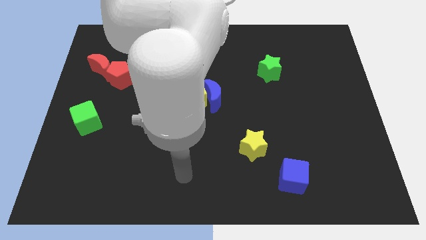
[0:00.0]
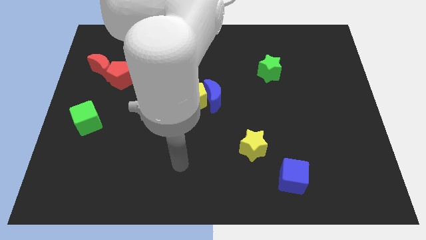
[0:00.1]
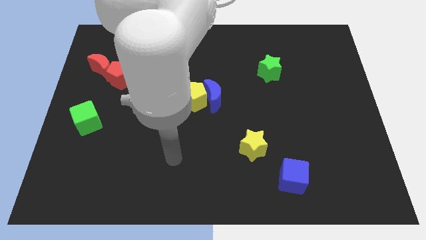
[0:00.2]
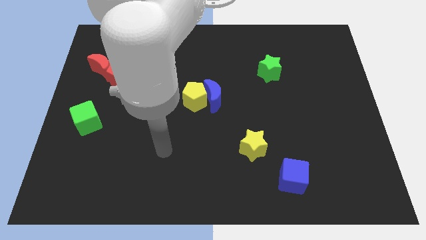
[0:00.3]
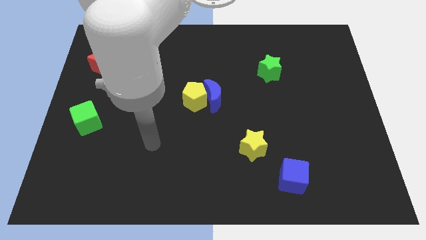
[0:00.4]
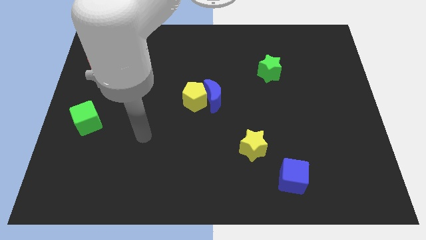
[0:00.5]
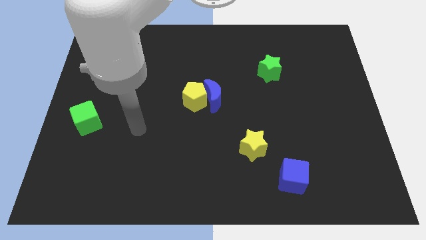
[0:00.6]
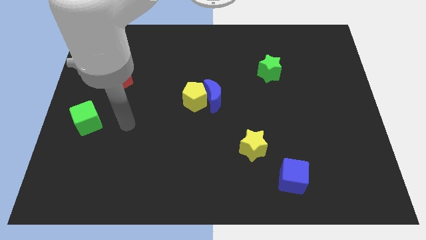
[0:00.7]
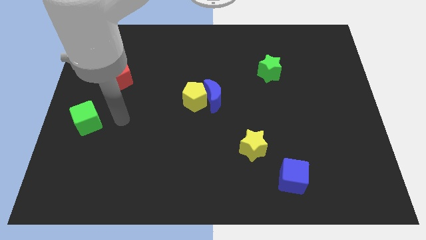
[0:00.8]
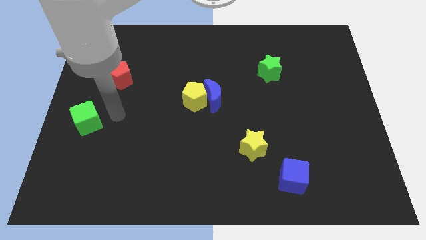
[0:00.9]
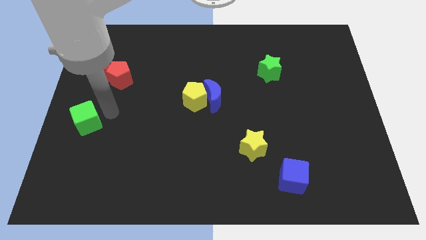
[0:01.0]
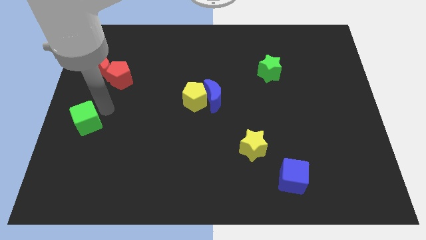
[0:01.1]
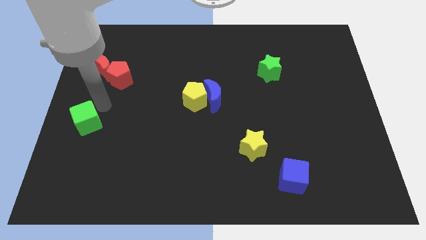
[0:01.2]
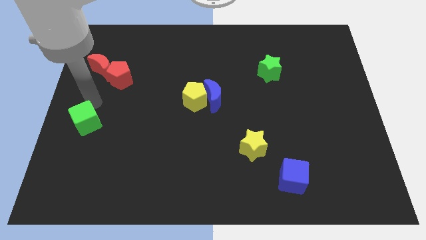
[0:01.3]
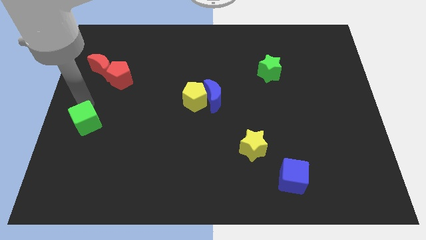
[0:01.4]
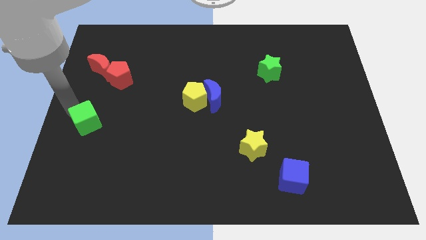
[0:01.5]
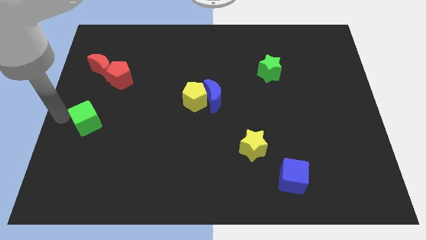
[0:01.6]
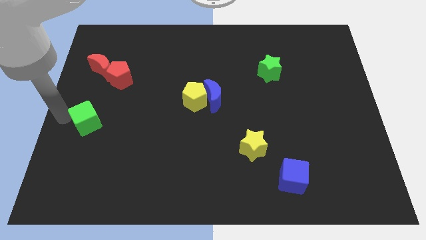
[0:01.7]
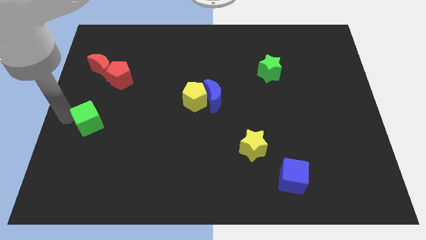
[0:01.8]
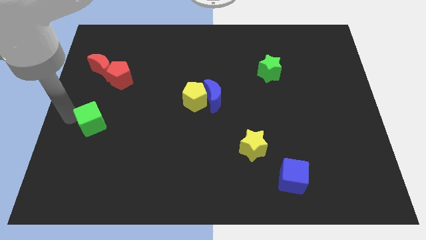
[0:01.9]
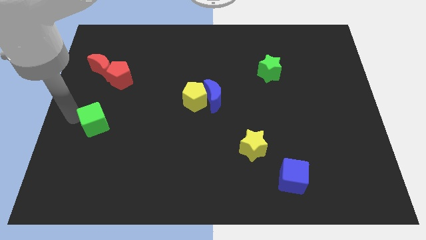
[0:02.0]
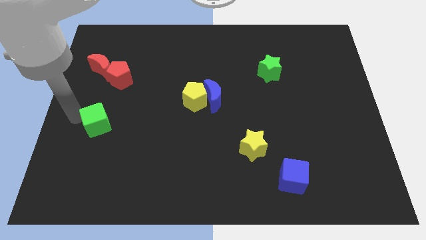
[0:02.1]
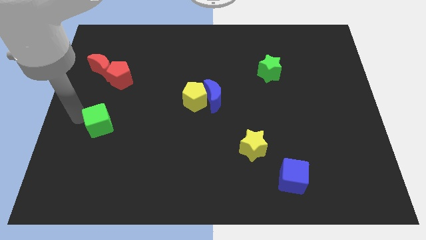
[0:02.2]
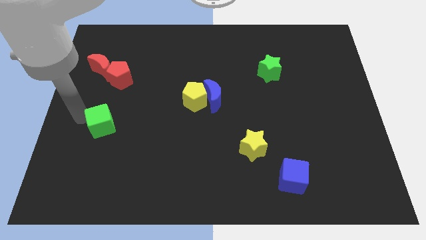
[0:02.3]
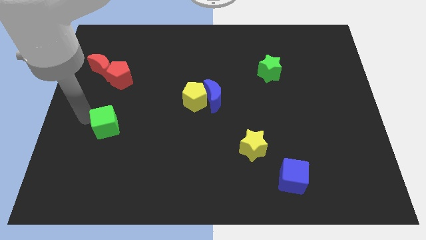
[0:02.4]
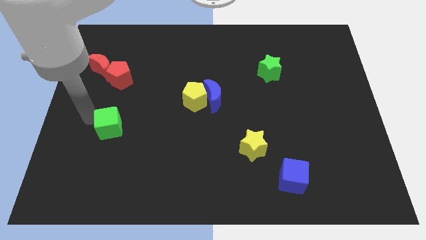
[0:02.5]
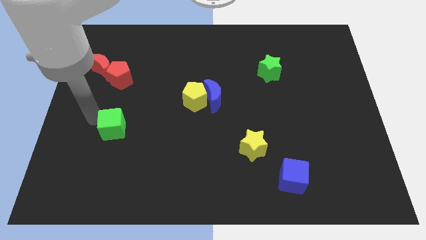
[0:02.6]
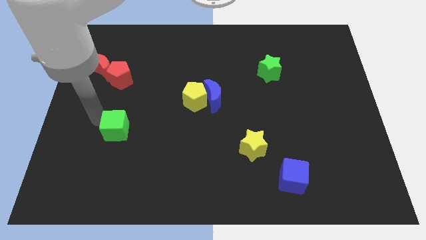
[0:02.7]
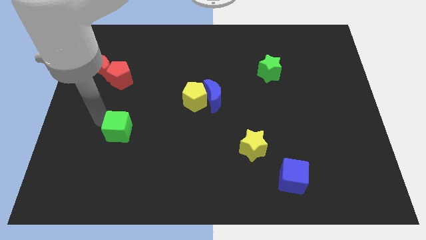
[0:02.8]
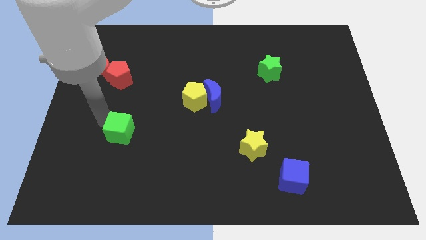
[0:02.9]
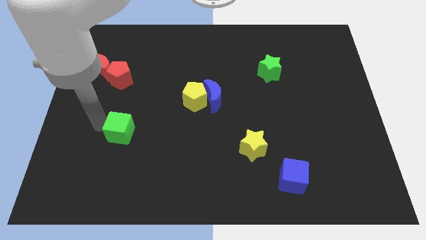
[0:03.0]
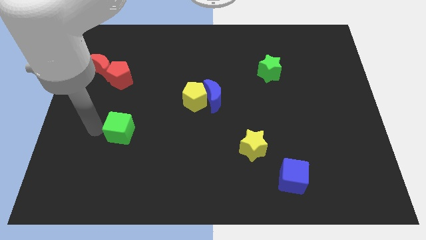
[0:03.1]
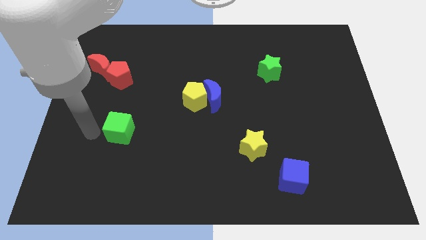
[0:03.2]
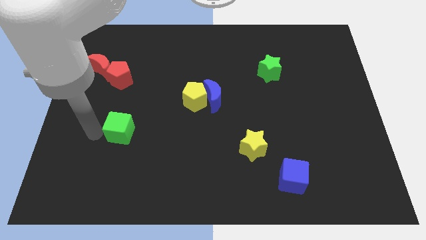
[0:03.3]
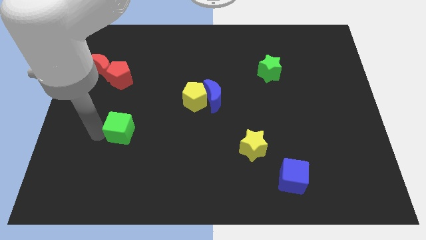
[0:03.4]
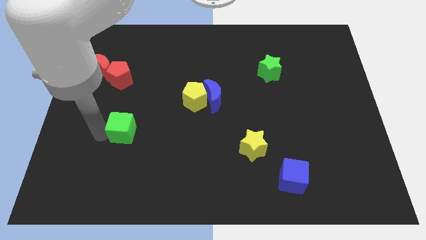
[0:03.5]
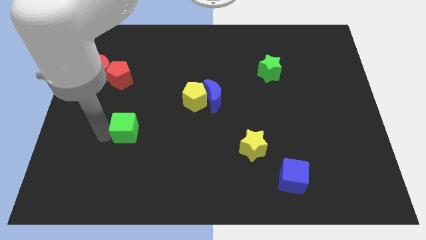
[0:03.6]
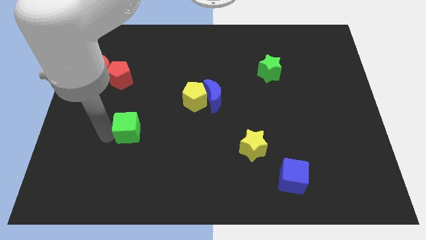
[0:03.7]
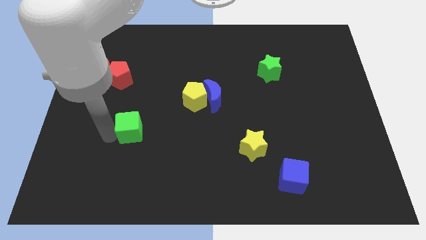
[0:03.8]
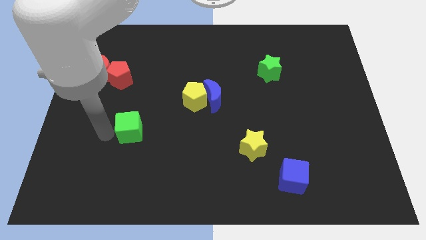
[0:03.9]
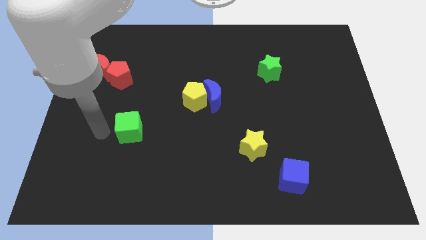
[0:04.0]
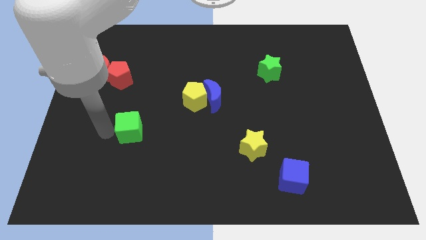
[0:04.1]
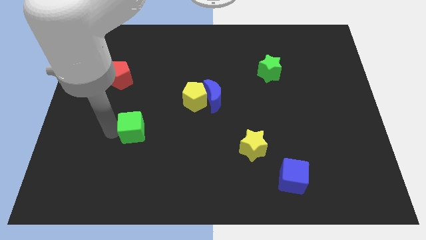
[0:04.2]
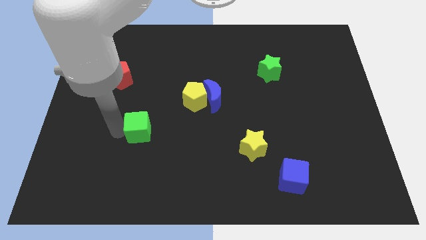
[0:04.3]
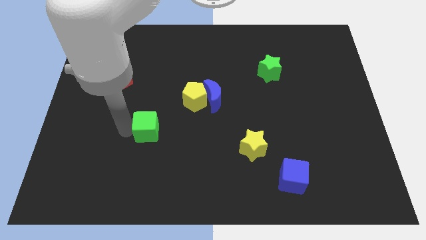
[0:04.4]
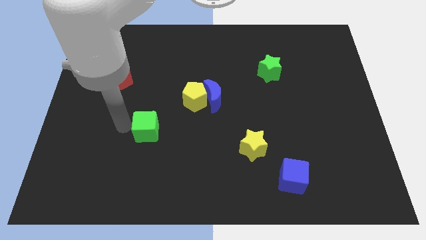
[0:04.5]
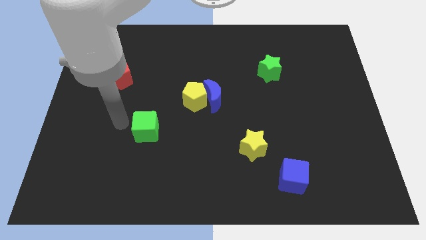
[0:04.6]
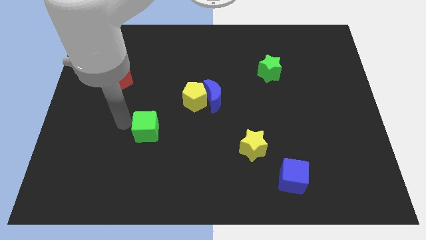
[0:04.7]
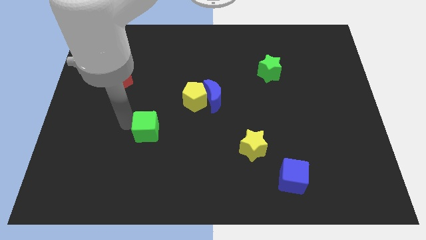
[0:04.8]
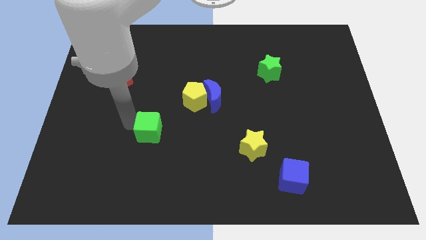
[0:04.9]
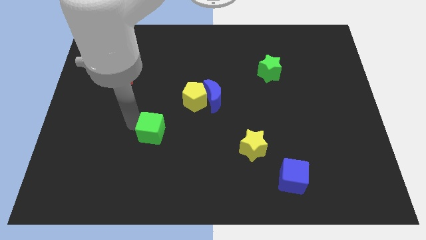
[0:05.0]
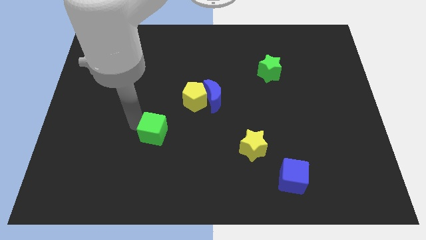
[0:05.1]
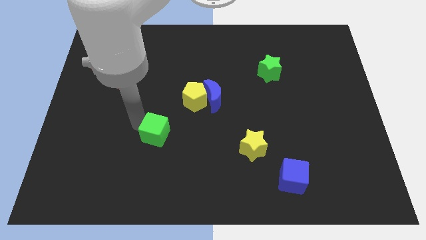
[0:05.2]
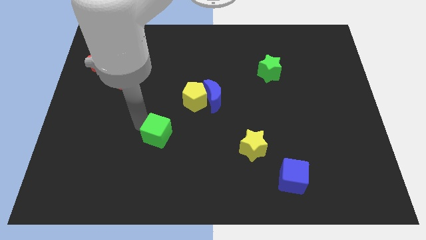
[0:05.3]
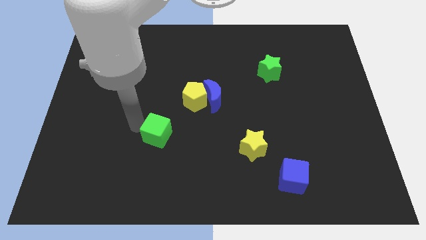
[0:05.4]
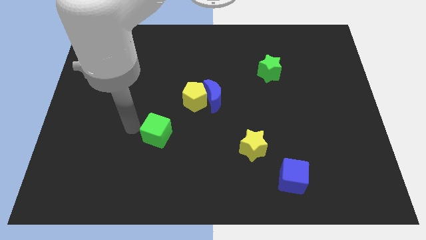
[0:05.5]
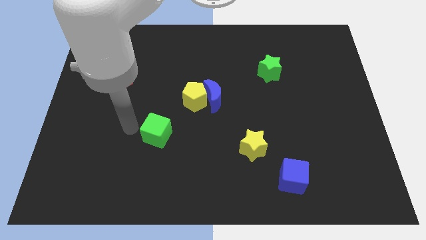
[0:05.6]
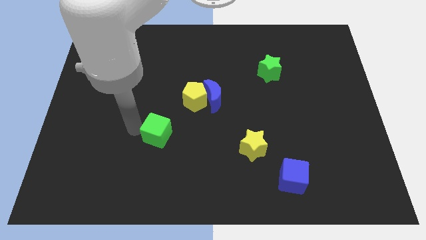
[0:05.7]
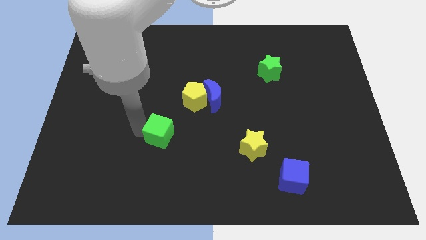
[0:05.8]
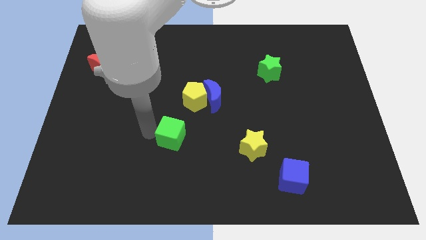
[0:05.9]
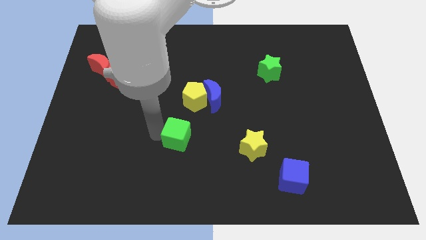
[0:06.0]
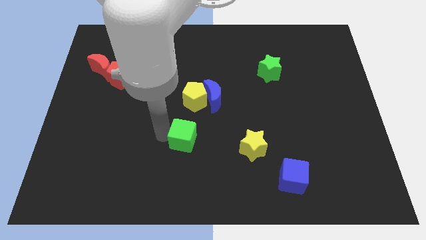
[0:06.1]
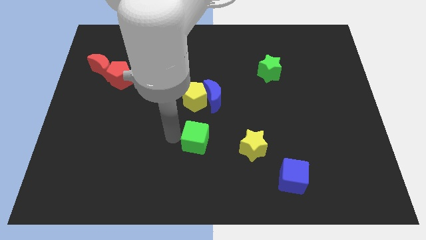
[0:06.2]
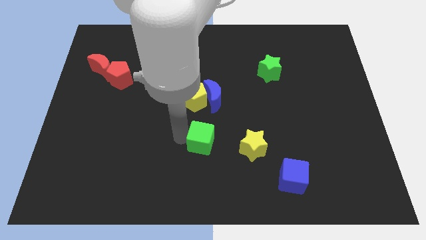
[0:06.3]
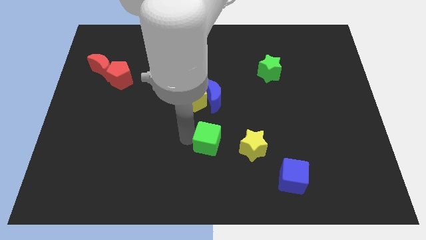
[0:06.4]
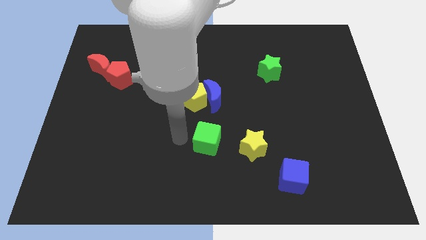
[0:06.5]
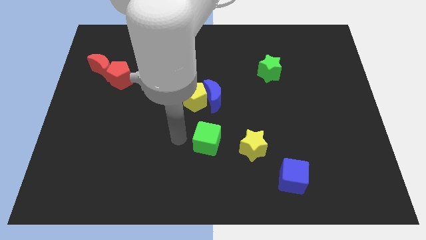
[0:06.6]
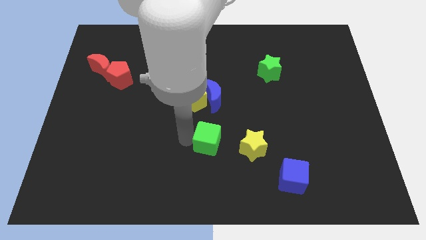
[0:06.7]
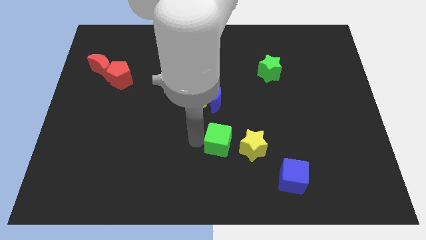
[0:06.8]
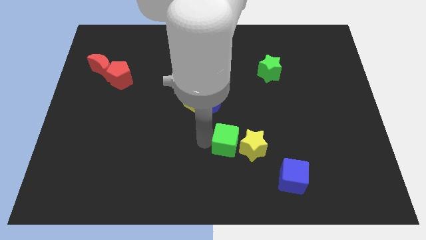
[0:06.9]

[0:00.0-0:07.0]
put the green cube to the yellow star

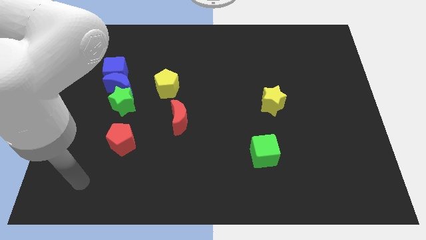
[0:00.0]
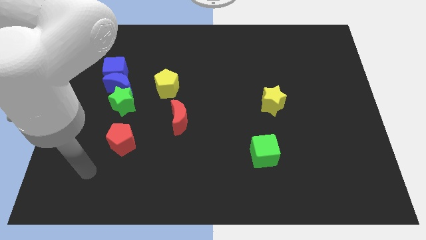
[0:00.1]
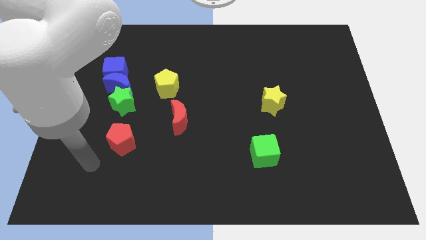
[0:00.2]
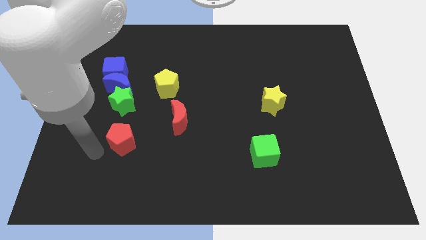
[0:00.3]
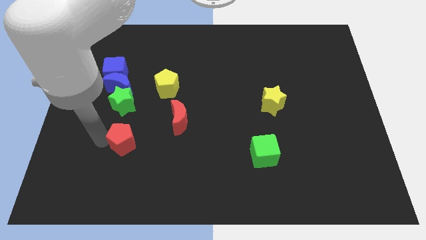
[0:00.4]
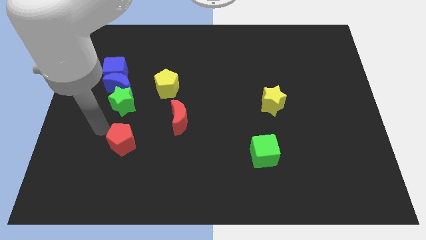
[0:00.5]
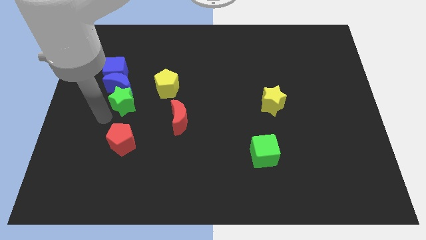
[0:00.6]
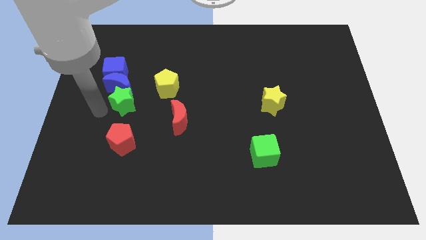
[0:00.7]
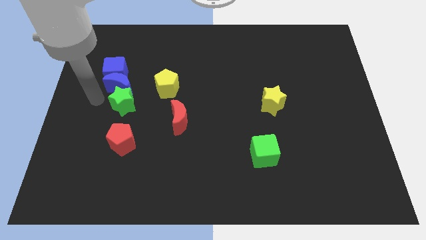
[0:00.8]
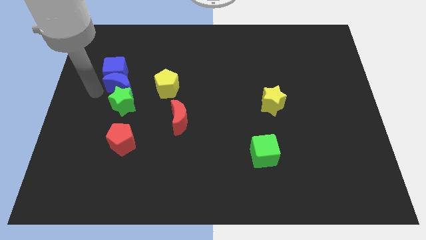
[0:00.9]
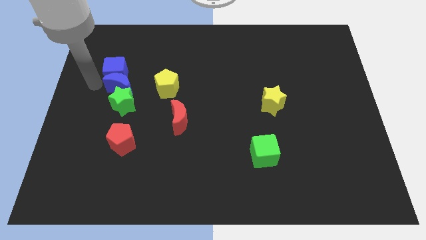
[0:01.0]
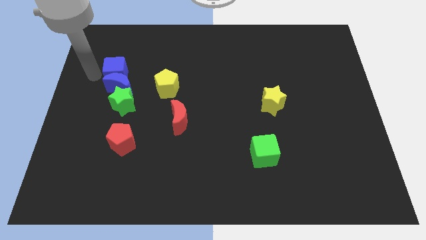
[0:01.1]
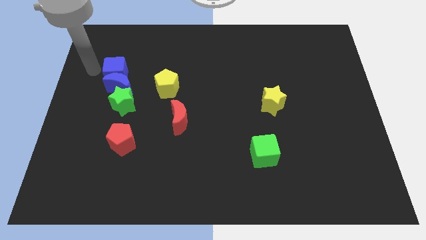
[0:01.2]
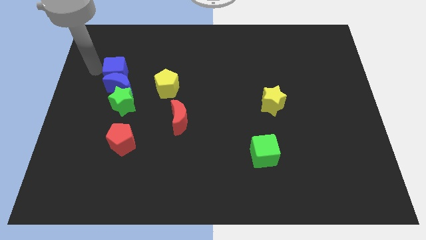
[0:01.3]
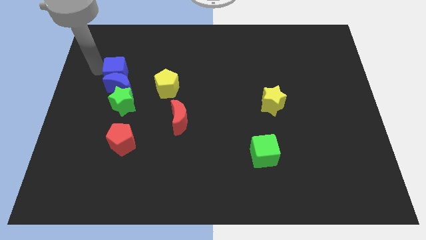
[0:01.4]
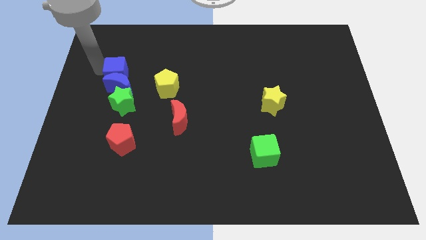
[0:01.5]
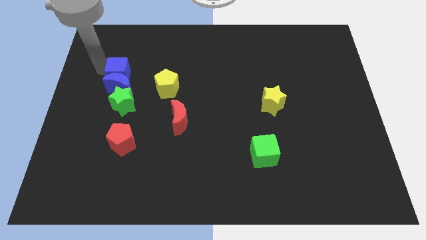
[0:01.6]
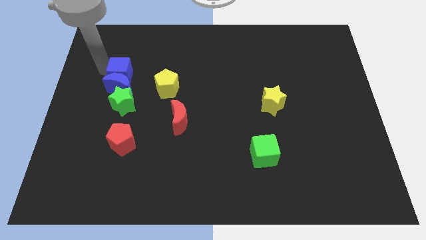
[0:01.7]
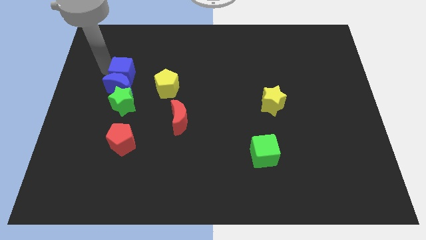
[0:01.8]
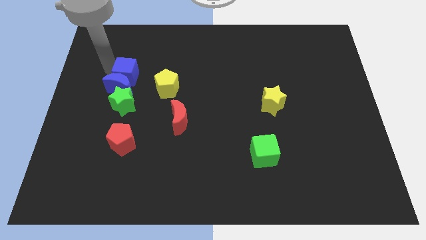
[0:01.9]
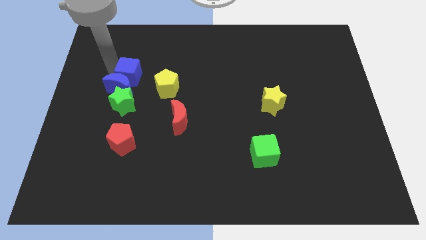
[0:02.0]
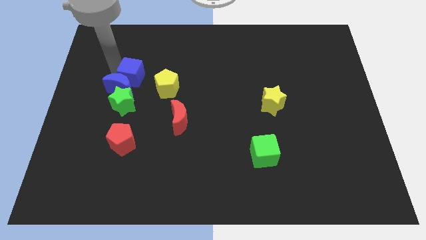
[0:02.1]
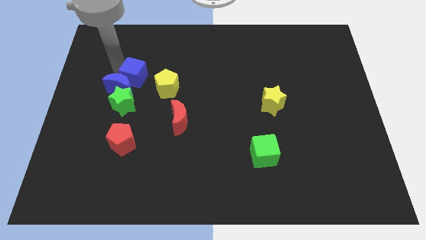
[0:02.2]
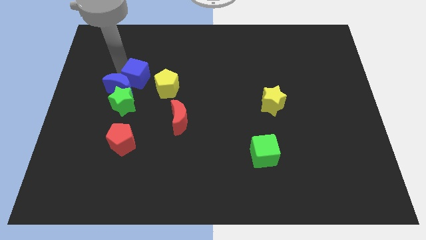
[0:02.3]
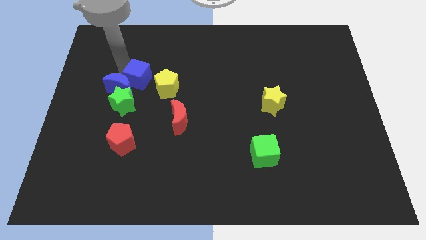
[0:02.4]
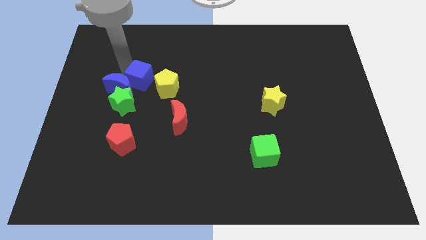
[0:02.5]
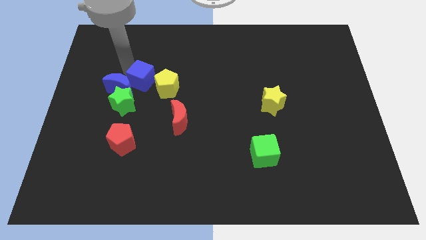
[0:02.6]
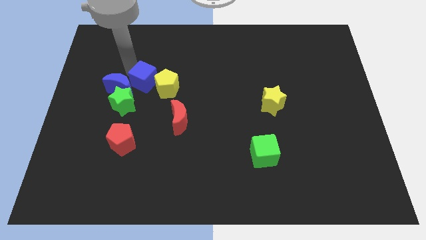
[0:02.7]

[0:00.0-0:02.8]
move the blue cube to the yellow pentagon
